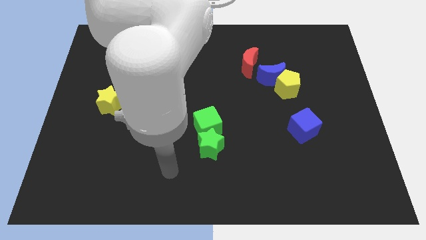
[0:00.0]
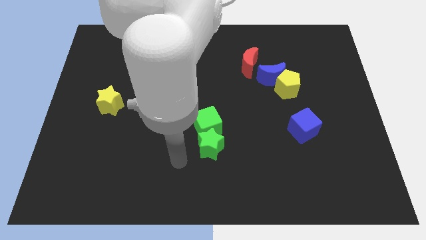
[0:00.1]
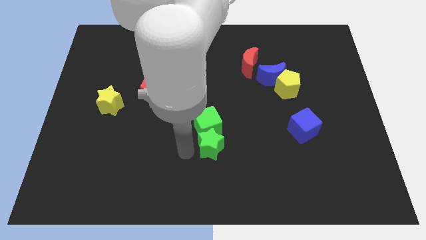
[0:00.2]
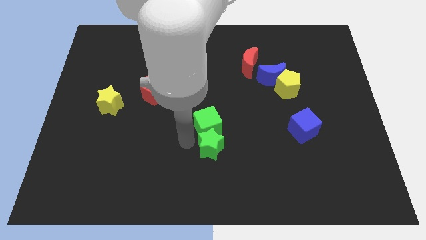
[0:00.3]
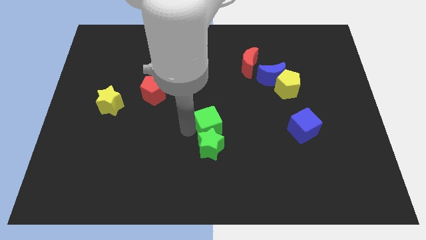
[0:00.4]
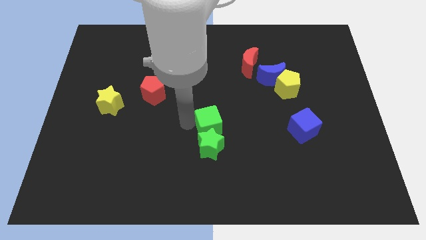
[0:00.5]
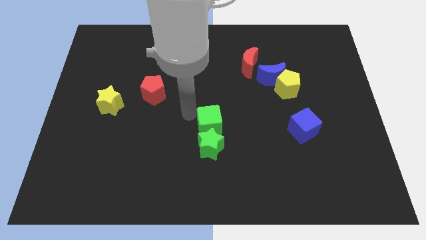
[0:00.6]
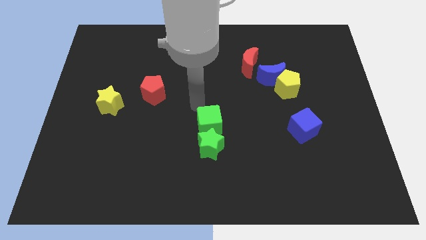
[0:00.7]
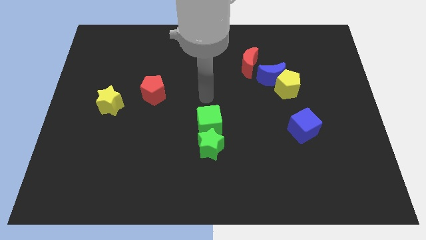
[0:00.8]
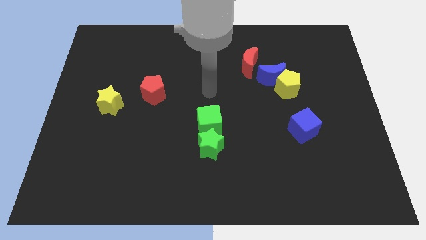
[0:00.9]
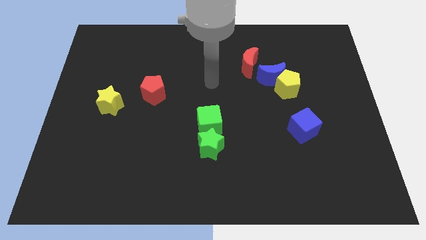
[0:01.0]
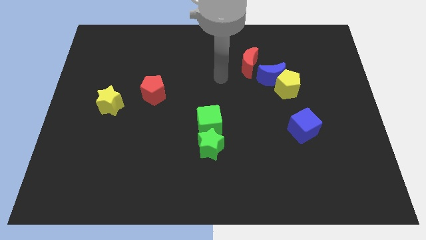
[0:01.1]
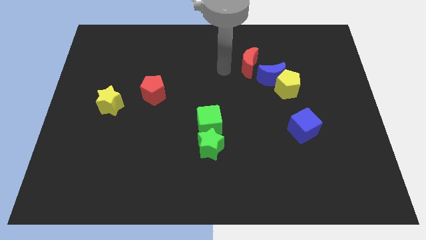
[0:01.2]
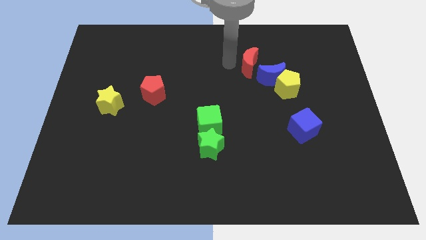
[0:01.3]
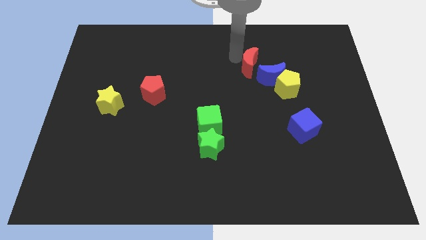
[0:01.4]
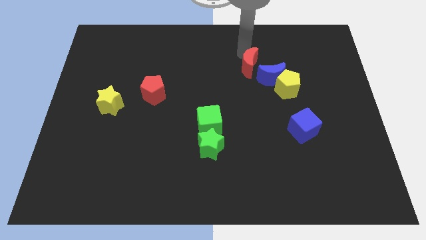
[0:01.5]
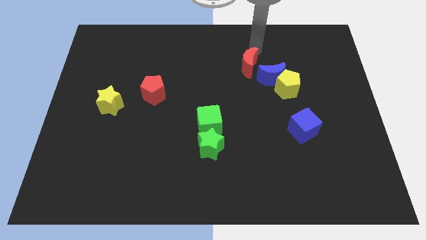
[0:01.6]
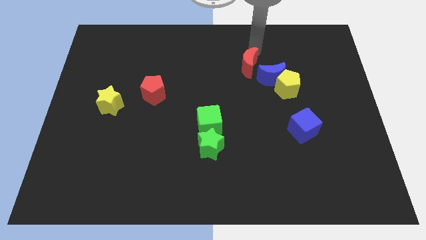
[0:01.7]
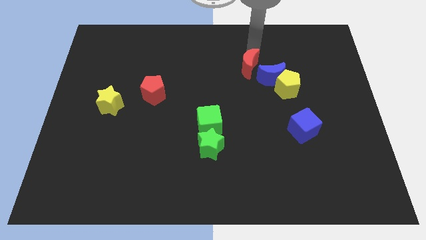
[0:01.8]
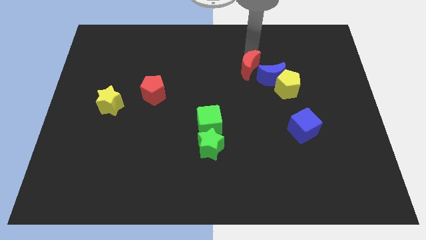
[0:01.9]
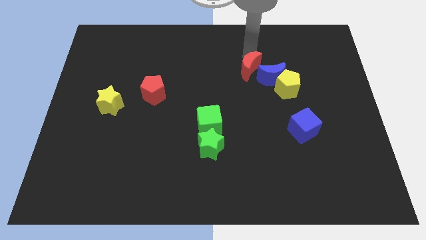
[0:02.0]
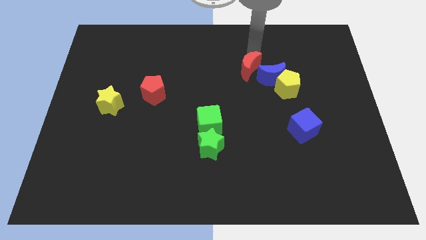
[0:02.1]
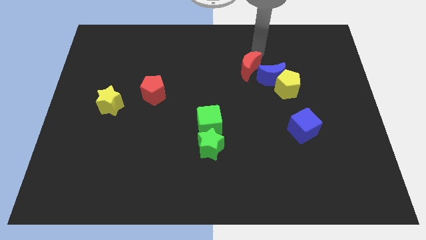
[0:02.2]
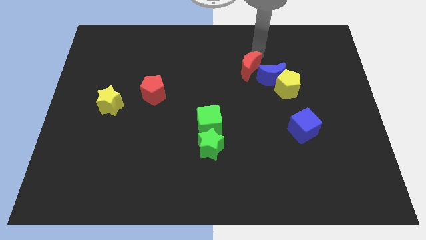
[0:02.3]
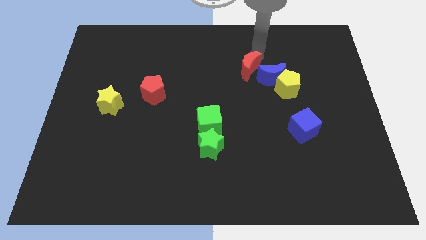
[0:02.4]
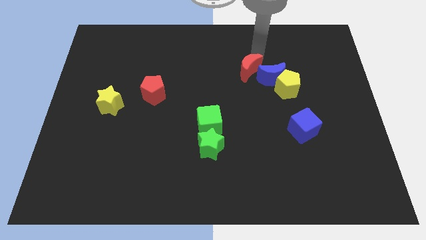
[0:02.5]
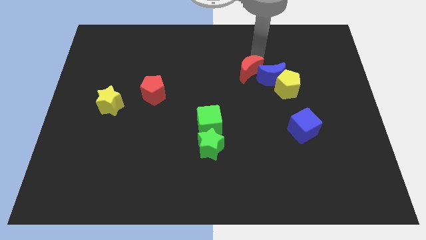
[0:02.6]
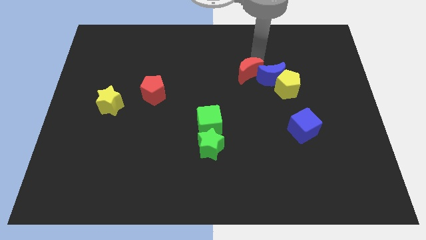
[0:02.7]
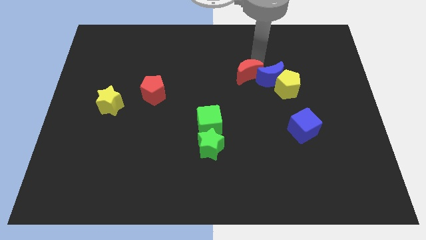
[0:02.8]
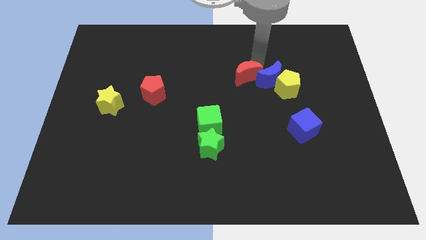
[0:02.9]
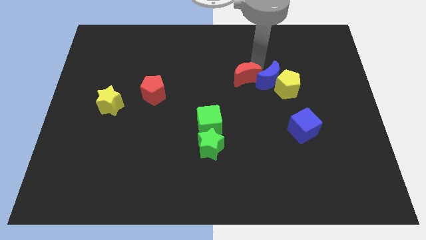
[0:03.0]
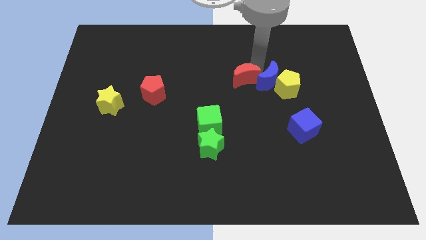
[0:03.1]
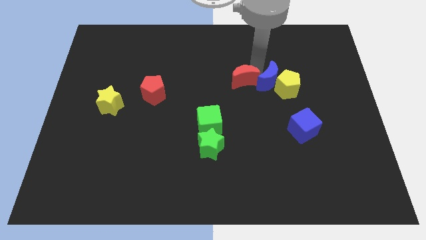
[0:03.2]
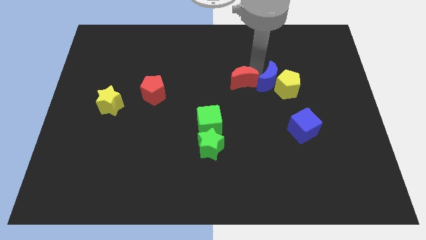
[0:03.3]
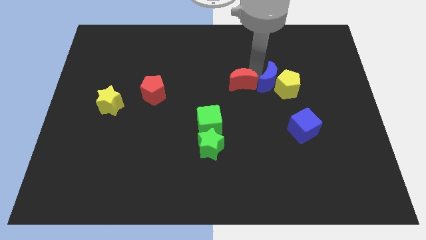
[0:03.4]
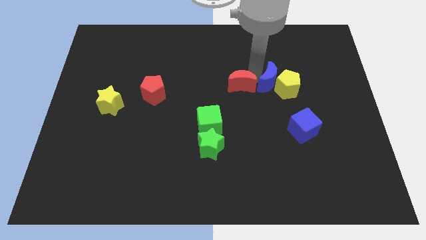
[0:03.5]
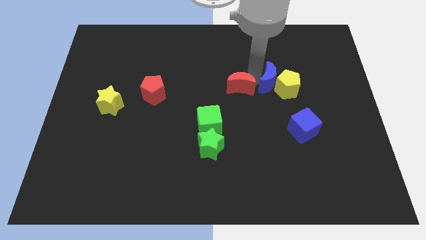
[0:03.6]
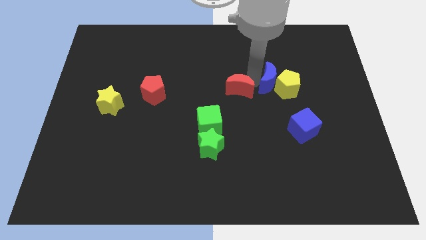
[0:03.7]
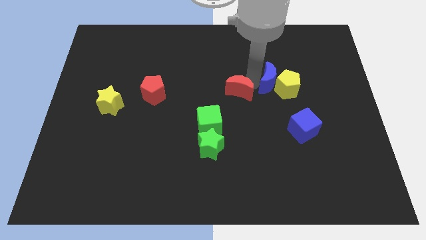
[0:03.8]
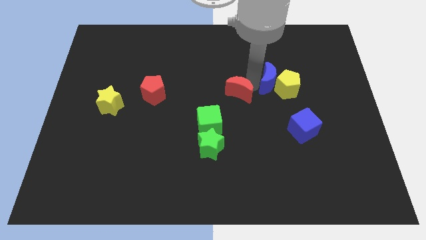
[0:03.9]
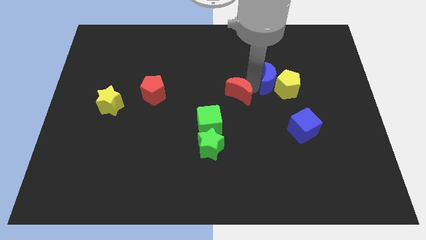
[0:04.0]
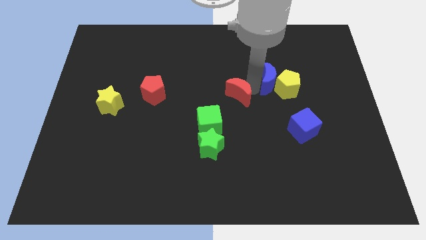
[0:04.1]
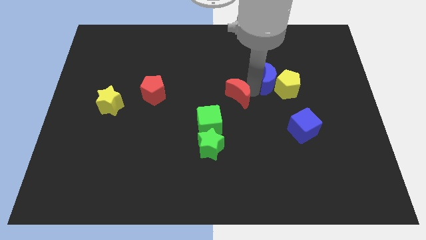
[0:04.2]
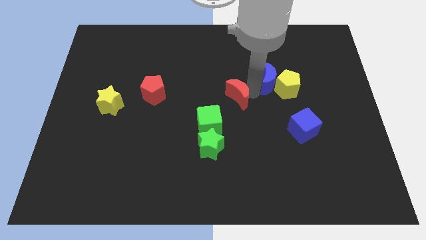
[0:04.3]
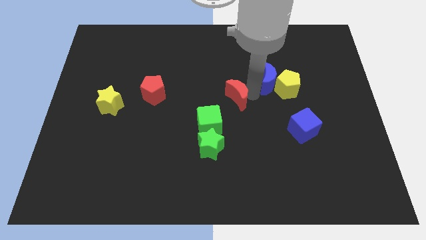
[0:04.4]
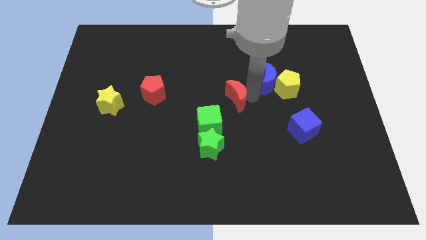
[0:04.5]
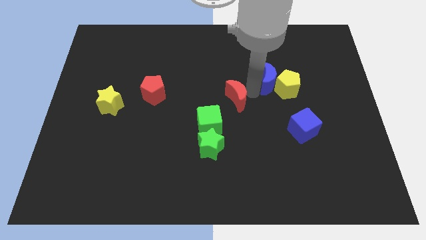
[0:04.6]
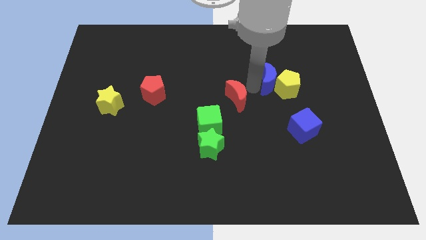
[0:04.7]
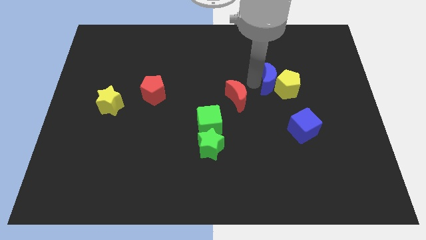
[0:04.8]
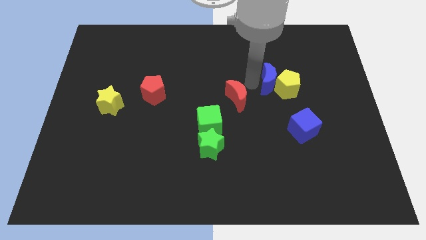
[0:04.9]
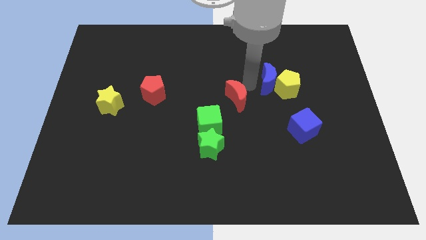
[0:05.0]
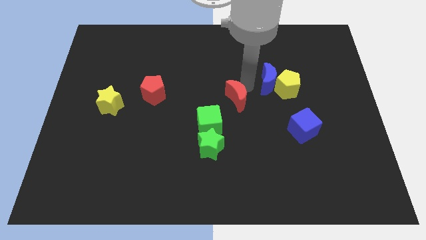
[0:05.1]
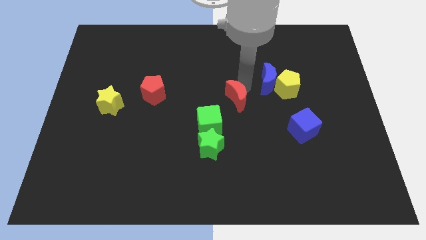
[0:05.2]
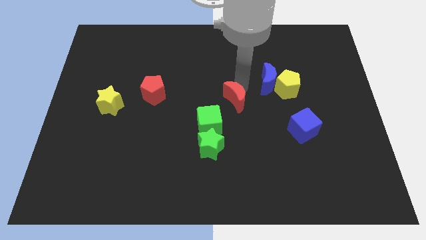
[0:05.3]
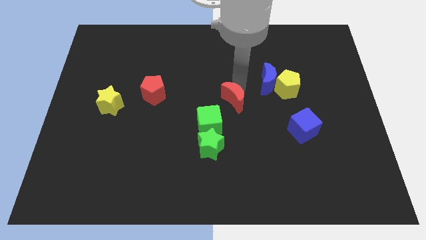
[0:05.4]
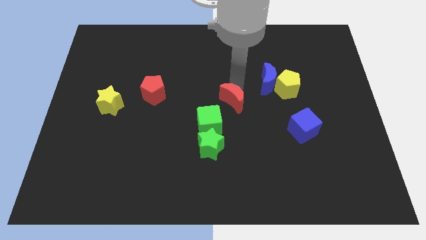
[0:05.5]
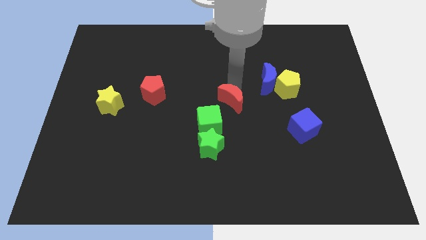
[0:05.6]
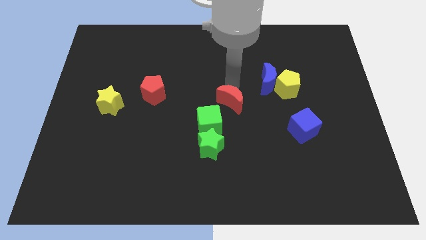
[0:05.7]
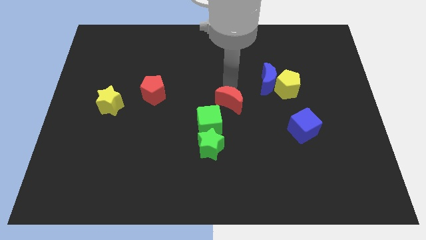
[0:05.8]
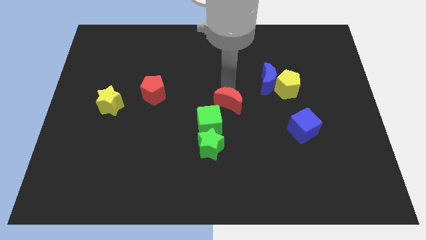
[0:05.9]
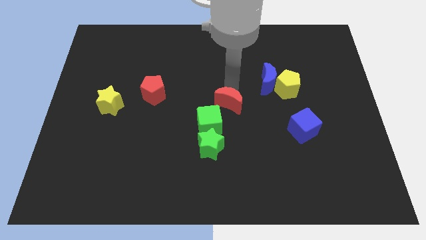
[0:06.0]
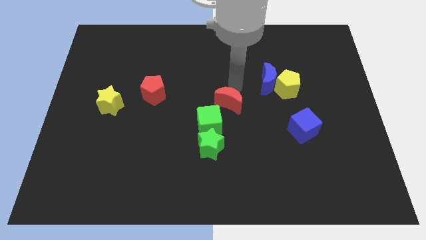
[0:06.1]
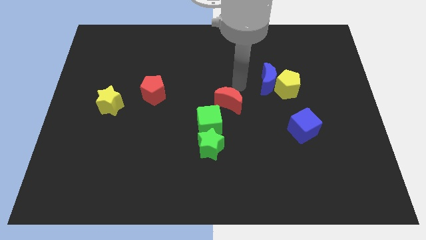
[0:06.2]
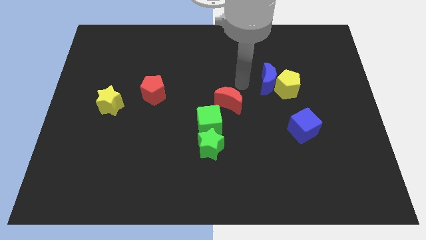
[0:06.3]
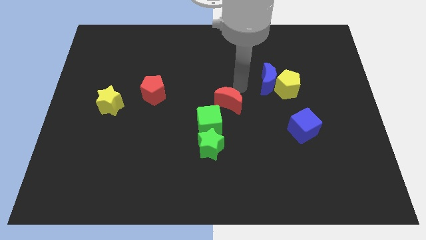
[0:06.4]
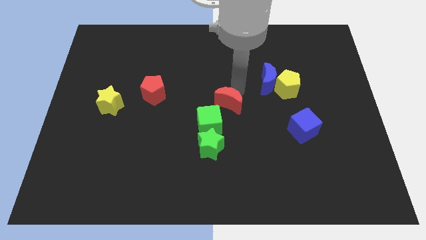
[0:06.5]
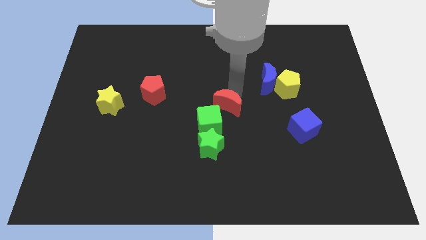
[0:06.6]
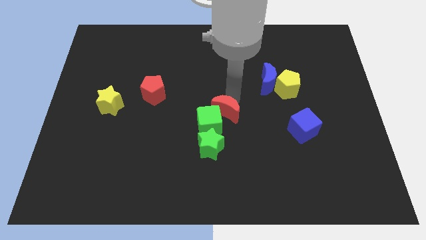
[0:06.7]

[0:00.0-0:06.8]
push the red moon next to the green cube

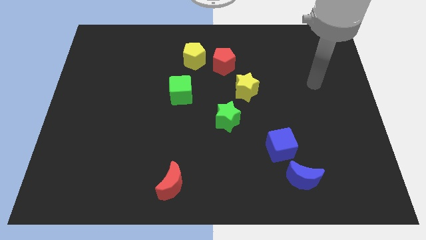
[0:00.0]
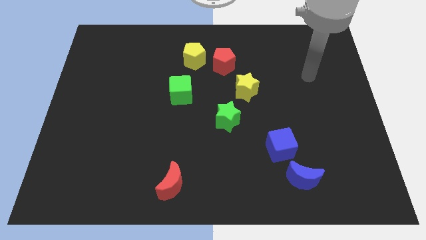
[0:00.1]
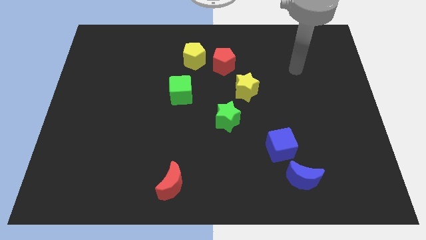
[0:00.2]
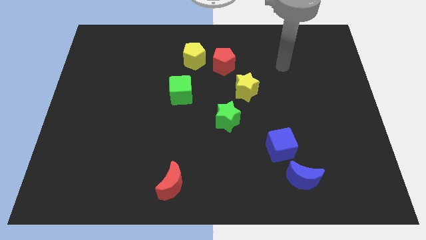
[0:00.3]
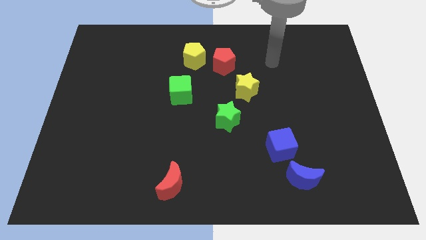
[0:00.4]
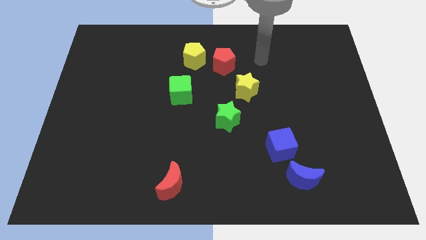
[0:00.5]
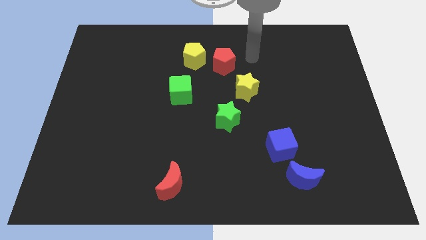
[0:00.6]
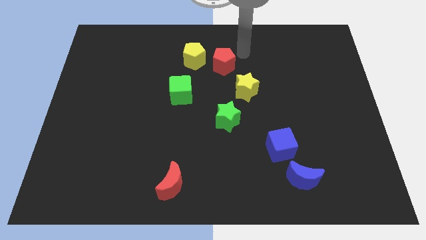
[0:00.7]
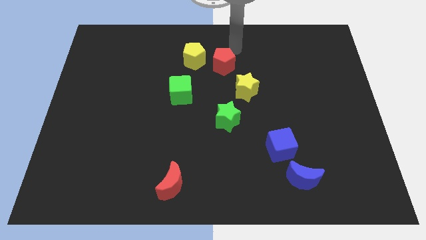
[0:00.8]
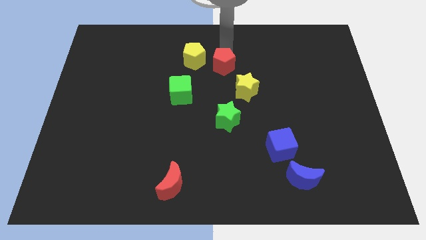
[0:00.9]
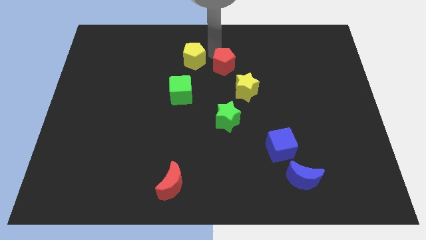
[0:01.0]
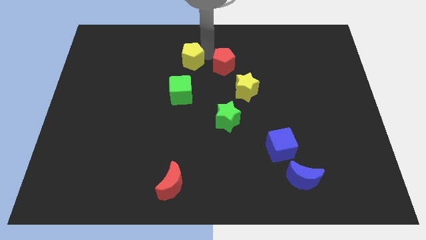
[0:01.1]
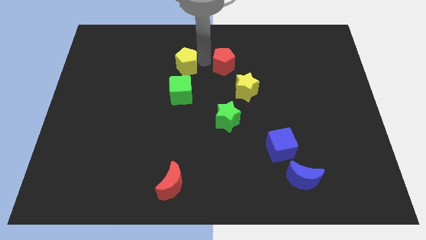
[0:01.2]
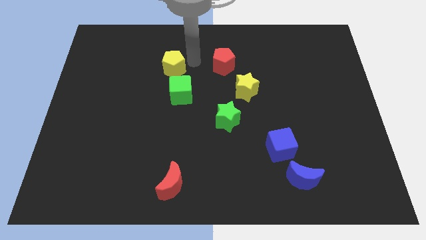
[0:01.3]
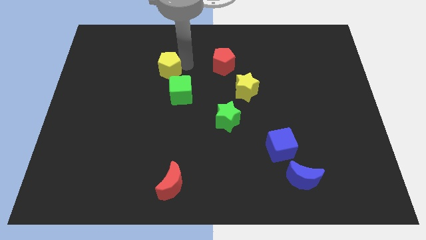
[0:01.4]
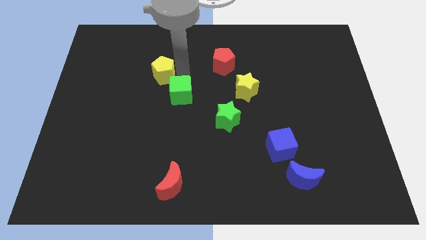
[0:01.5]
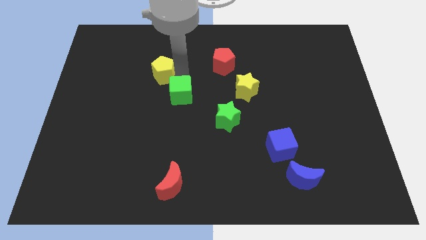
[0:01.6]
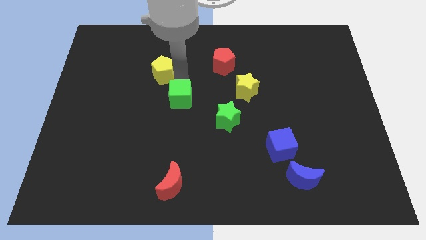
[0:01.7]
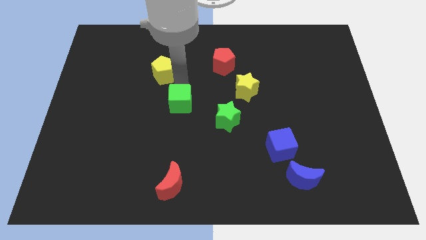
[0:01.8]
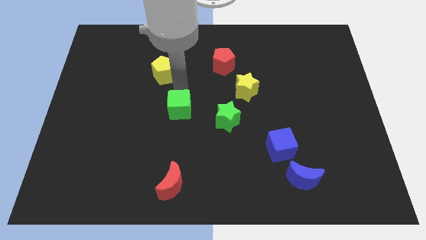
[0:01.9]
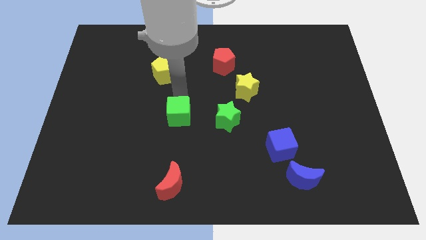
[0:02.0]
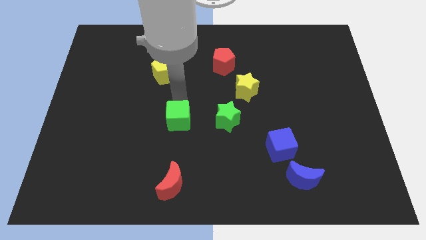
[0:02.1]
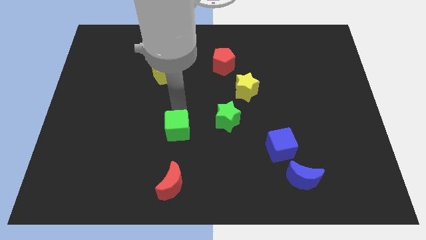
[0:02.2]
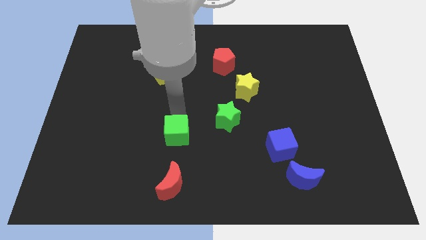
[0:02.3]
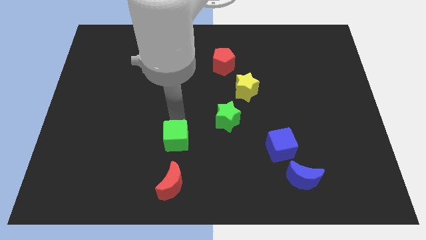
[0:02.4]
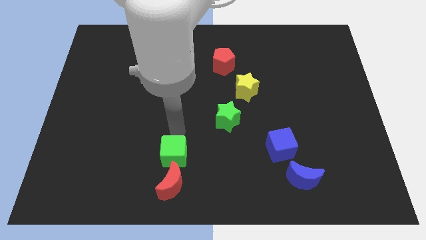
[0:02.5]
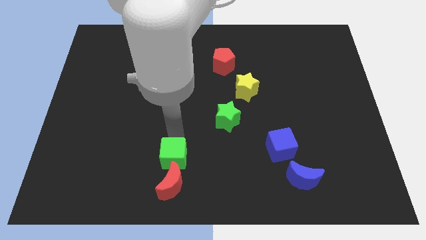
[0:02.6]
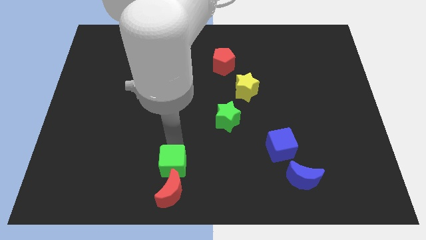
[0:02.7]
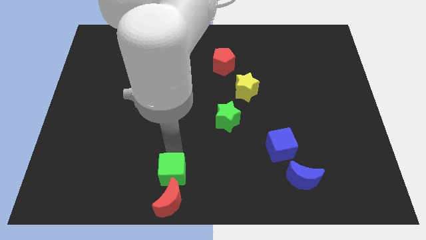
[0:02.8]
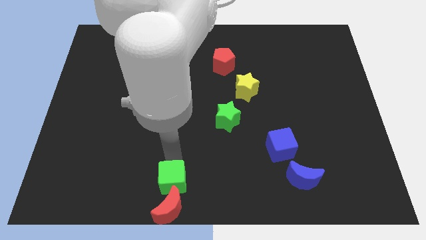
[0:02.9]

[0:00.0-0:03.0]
move the green cube next to the red moon
